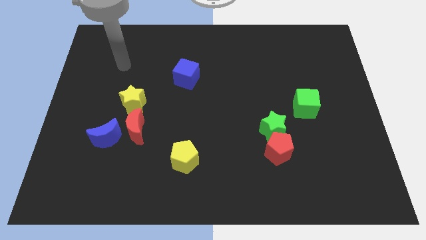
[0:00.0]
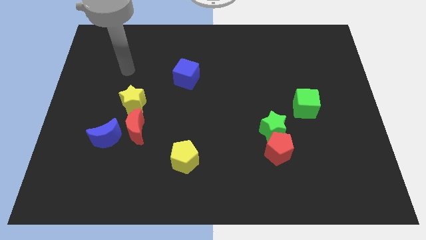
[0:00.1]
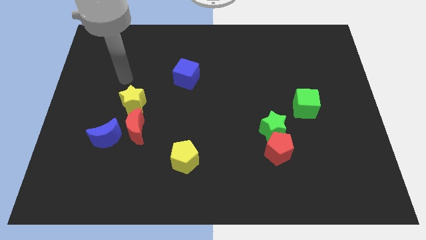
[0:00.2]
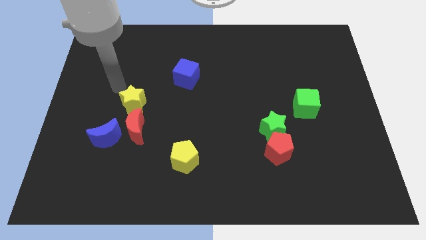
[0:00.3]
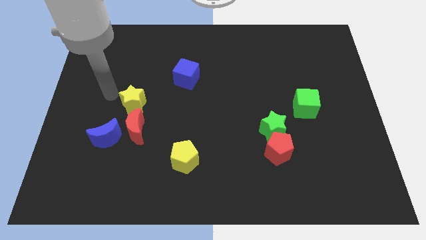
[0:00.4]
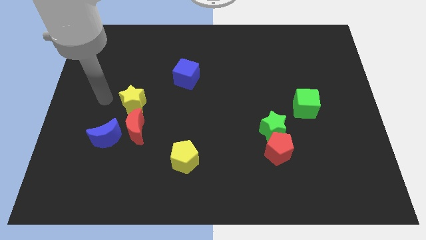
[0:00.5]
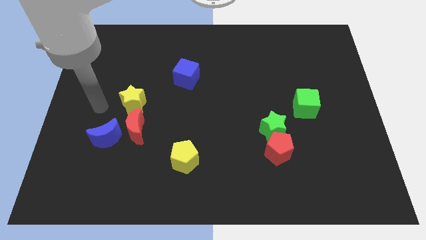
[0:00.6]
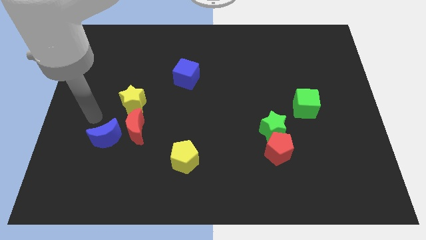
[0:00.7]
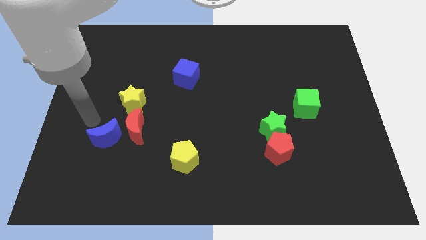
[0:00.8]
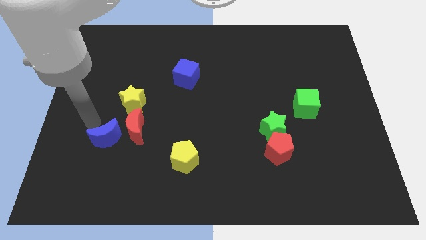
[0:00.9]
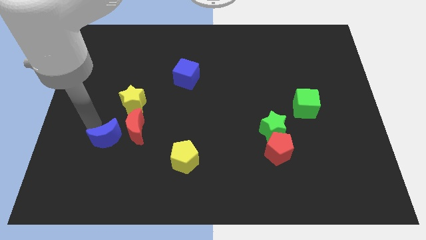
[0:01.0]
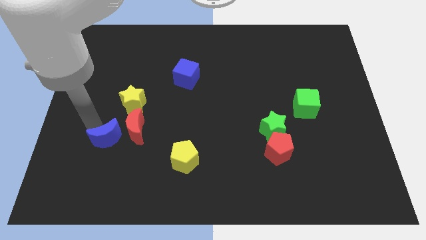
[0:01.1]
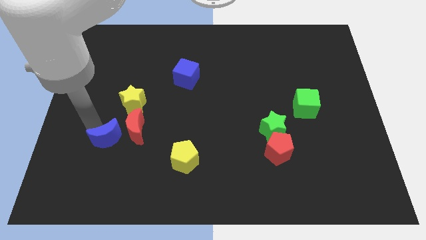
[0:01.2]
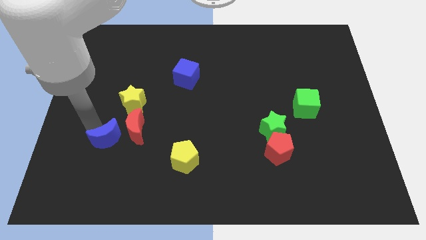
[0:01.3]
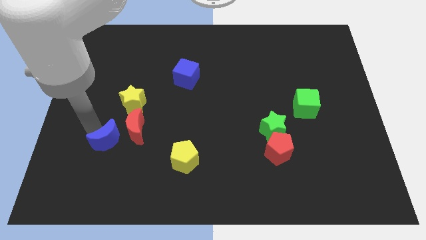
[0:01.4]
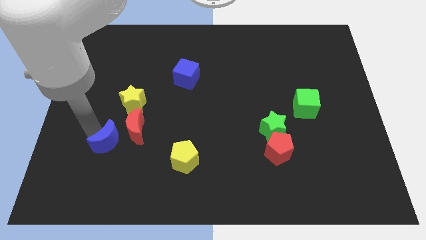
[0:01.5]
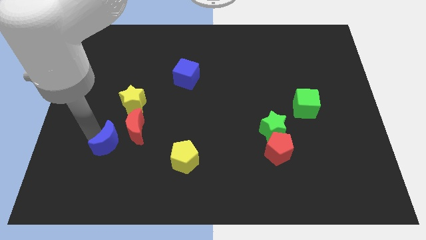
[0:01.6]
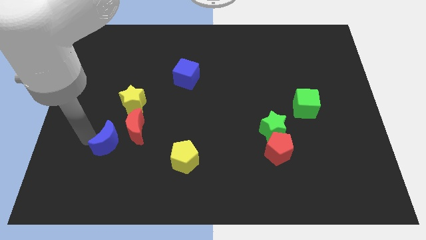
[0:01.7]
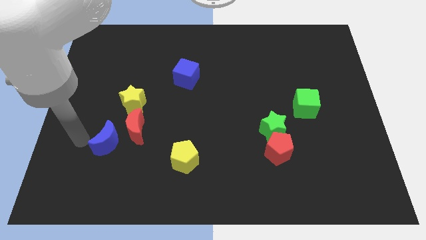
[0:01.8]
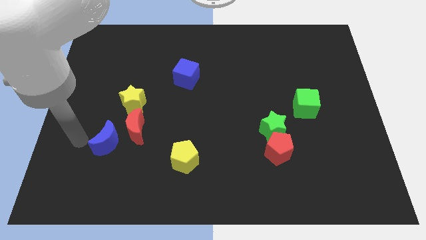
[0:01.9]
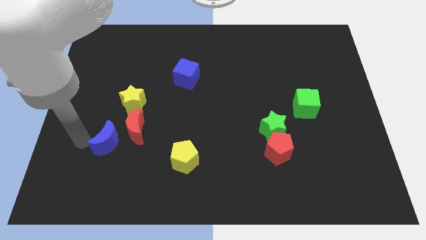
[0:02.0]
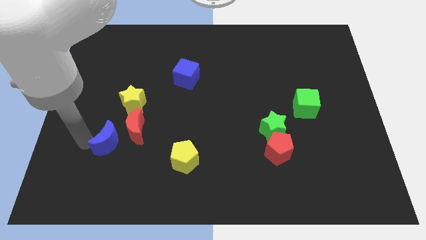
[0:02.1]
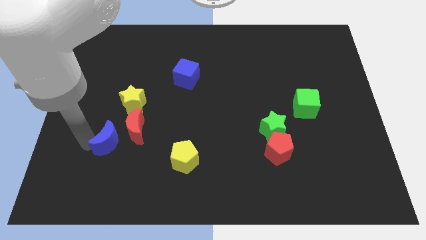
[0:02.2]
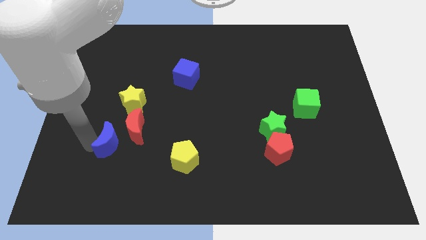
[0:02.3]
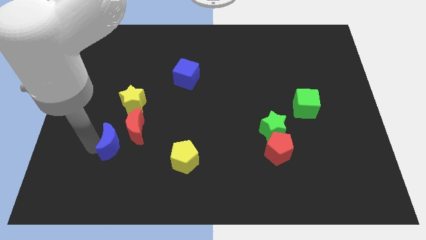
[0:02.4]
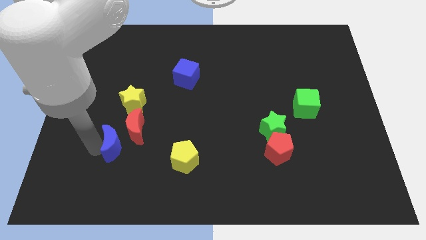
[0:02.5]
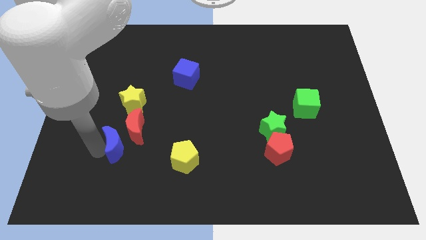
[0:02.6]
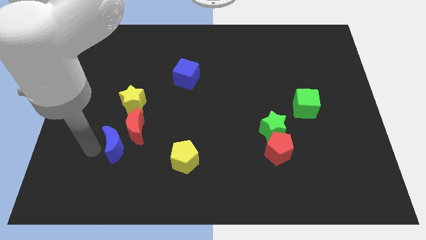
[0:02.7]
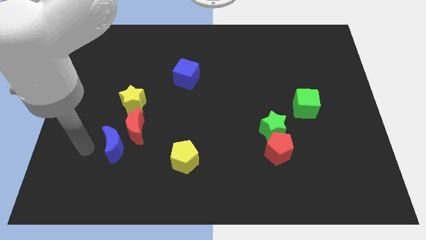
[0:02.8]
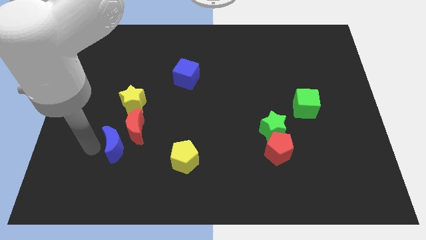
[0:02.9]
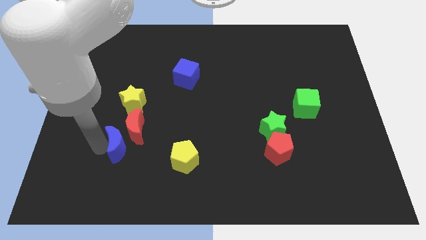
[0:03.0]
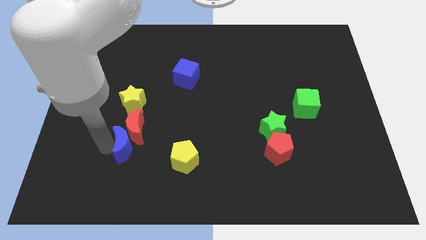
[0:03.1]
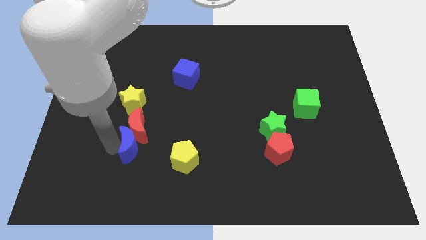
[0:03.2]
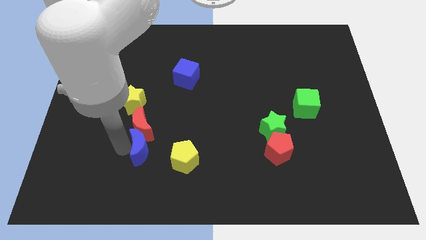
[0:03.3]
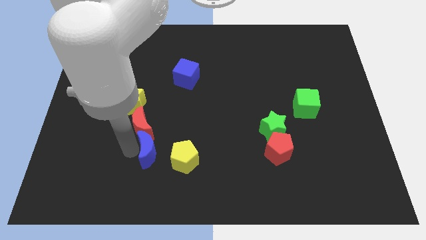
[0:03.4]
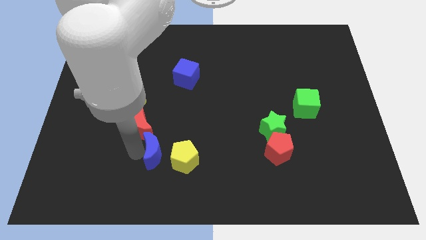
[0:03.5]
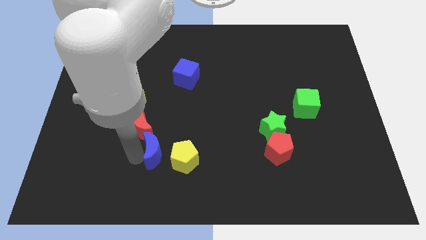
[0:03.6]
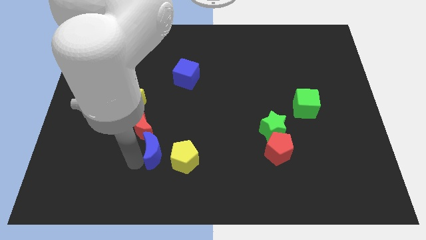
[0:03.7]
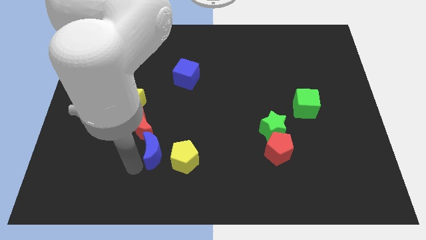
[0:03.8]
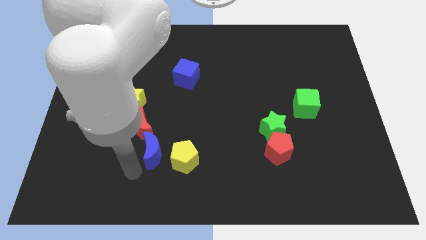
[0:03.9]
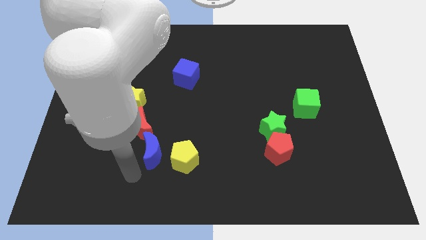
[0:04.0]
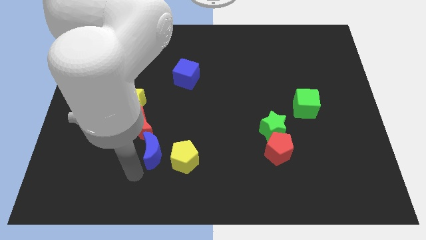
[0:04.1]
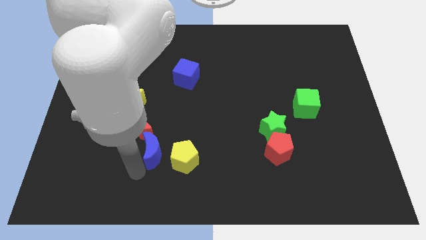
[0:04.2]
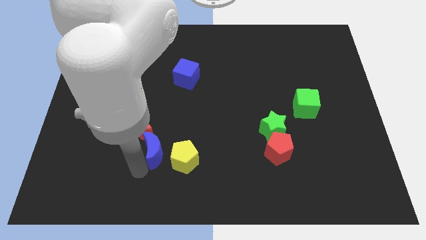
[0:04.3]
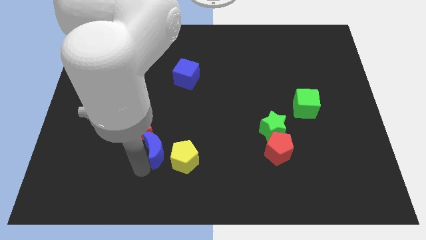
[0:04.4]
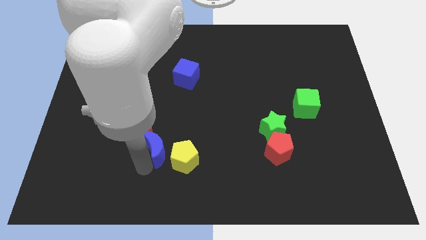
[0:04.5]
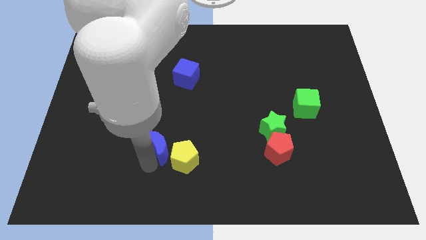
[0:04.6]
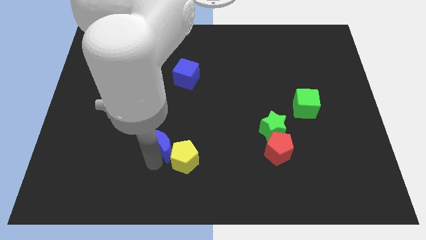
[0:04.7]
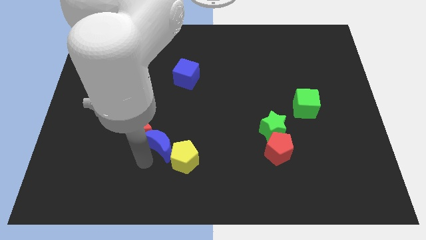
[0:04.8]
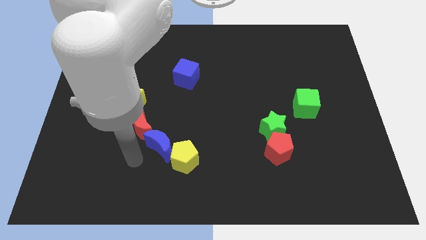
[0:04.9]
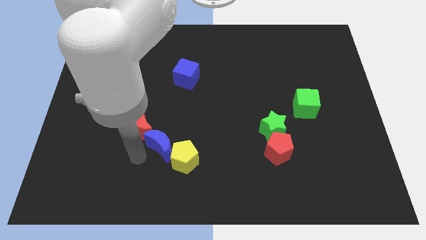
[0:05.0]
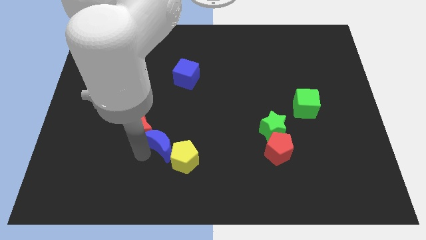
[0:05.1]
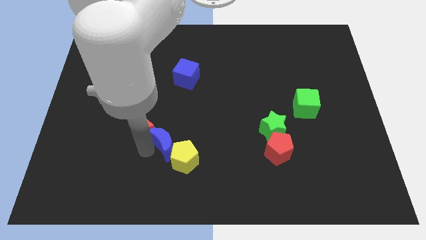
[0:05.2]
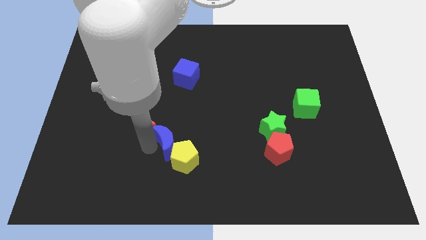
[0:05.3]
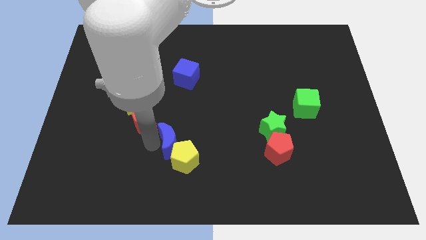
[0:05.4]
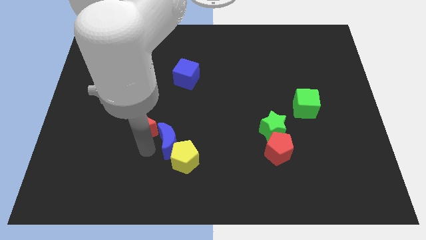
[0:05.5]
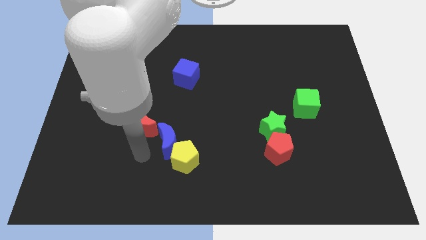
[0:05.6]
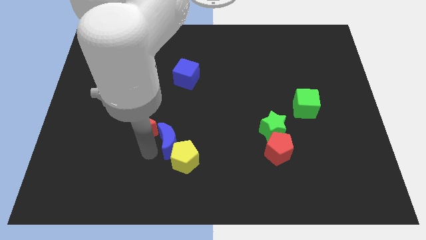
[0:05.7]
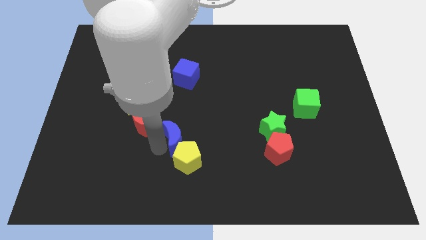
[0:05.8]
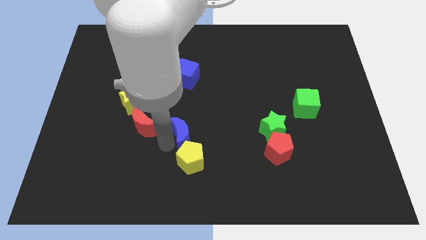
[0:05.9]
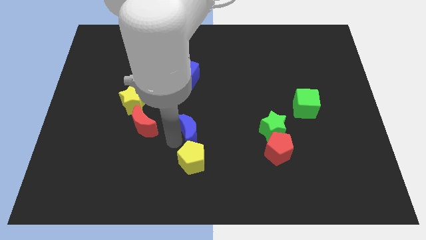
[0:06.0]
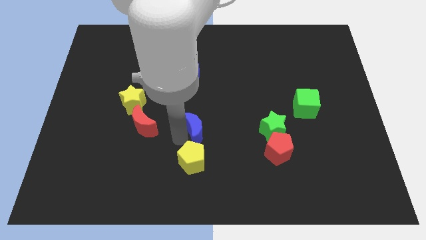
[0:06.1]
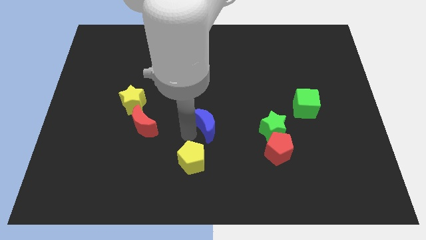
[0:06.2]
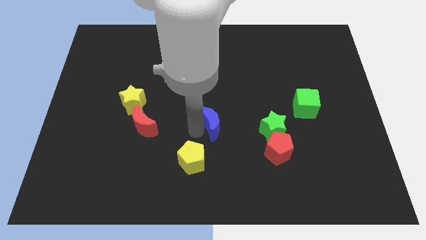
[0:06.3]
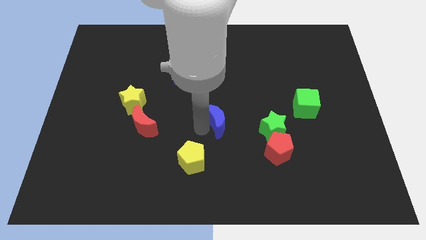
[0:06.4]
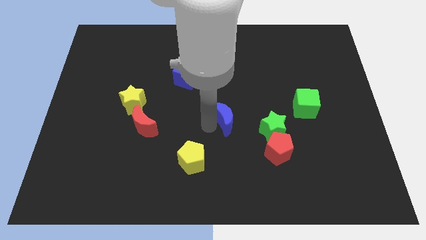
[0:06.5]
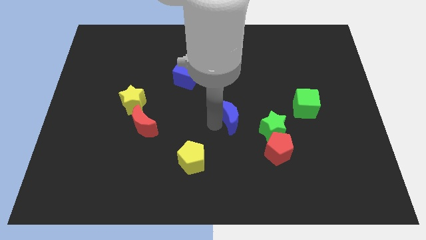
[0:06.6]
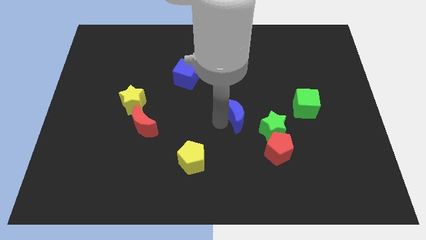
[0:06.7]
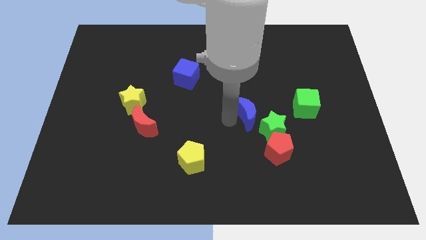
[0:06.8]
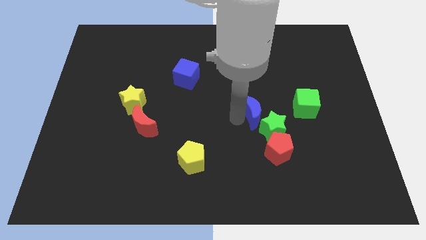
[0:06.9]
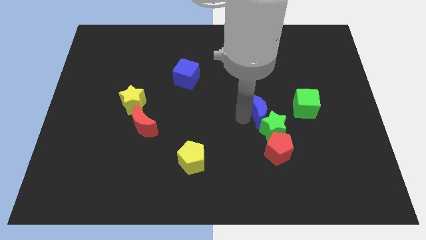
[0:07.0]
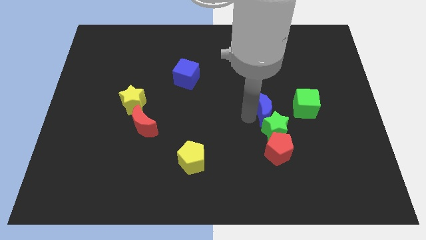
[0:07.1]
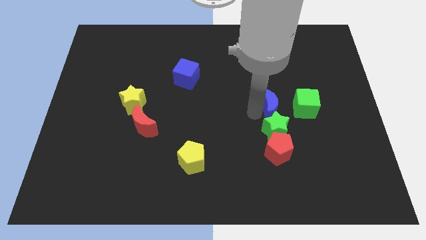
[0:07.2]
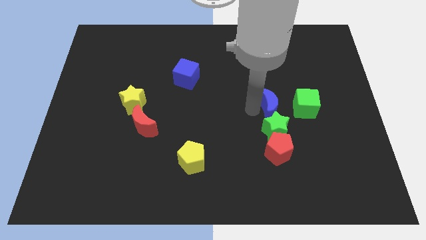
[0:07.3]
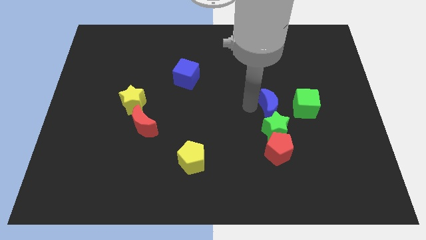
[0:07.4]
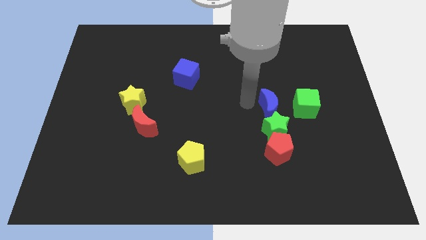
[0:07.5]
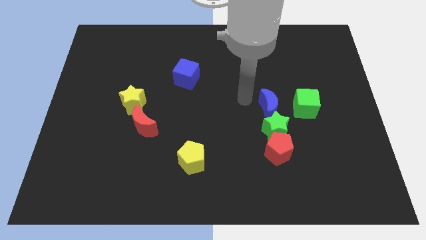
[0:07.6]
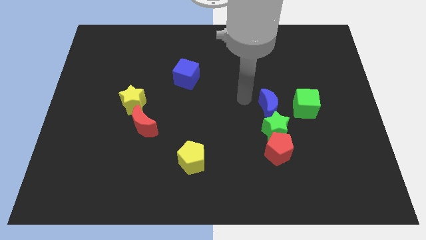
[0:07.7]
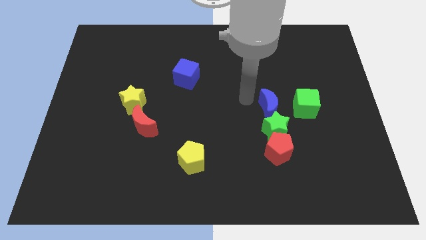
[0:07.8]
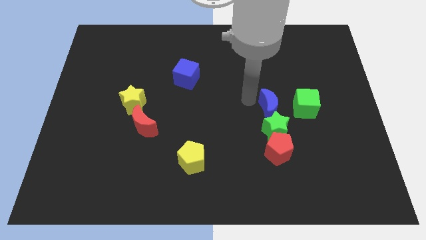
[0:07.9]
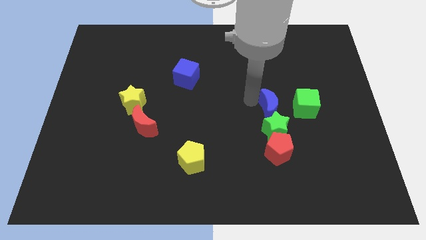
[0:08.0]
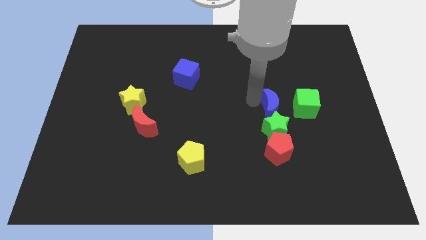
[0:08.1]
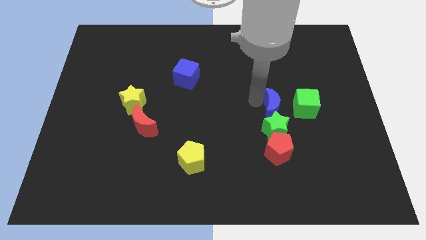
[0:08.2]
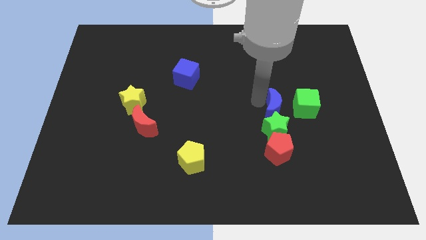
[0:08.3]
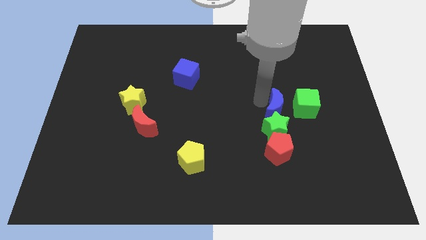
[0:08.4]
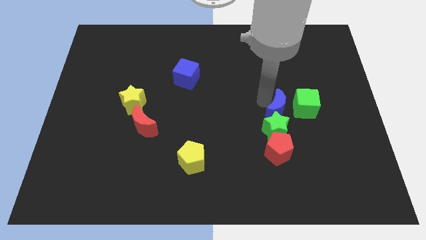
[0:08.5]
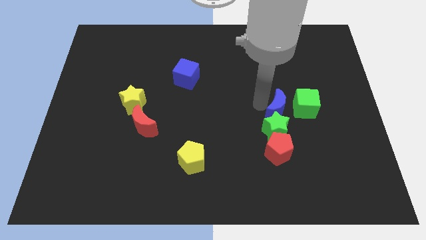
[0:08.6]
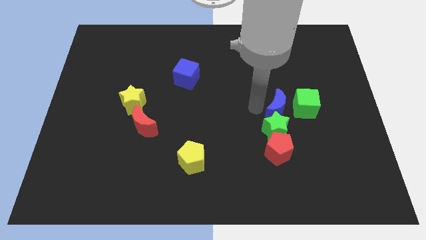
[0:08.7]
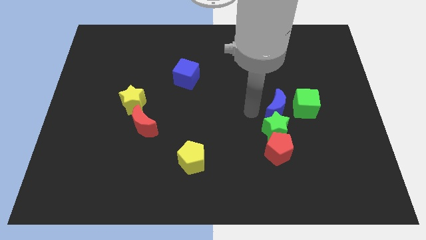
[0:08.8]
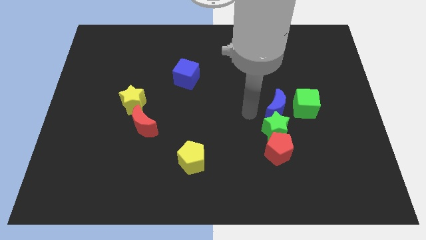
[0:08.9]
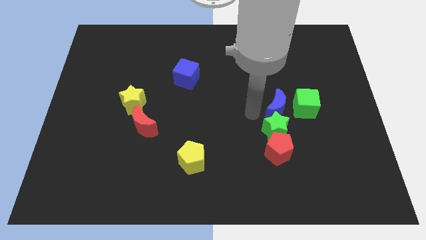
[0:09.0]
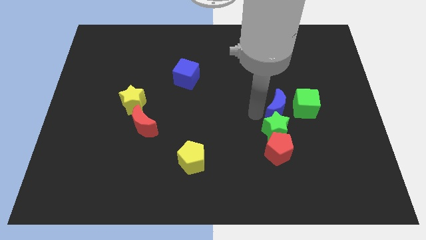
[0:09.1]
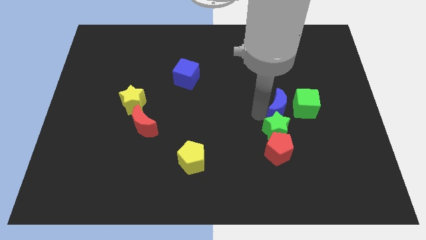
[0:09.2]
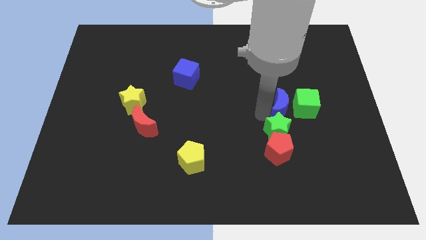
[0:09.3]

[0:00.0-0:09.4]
slide the blue moon close to the green cube
